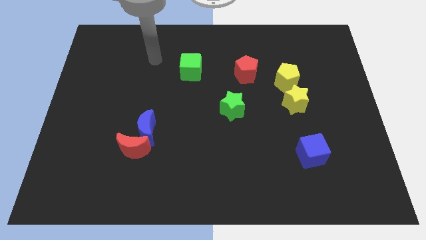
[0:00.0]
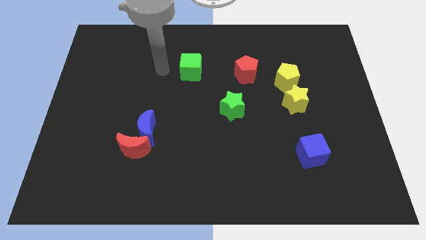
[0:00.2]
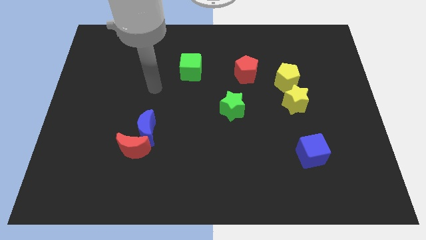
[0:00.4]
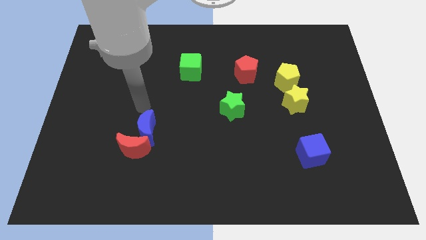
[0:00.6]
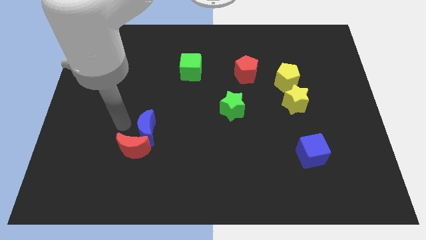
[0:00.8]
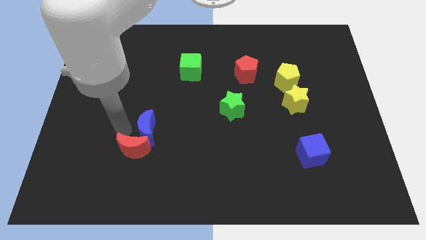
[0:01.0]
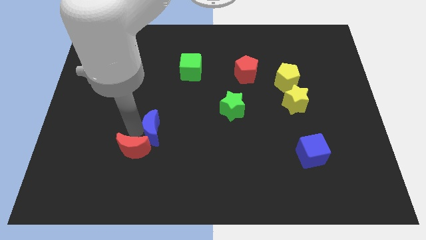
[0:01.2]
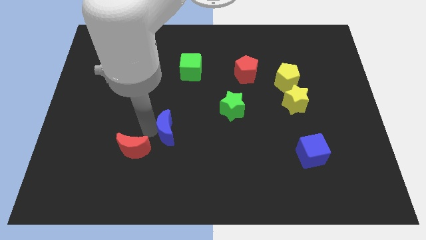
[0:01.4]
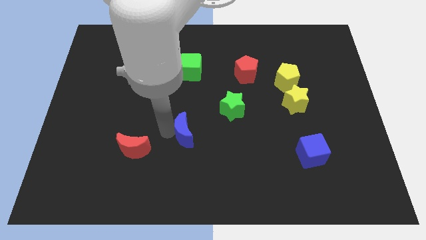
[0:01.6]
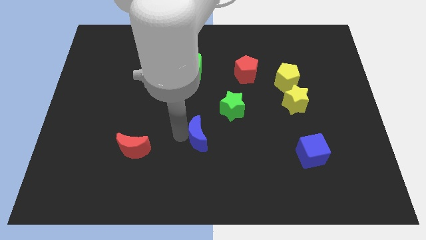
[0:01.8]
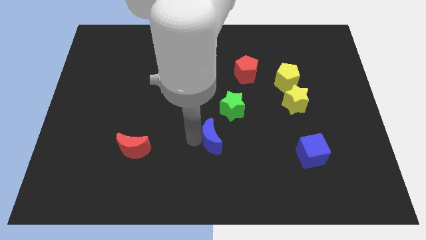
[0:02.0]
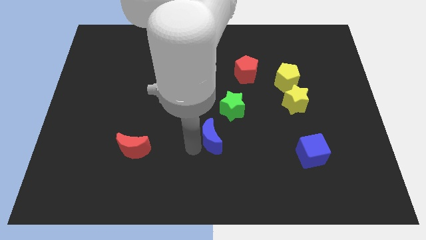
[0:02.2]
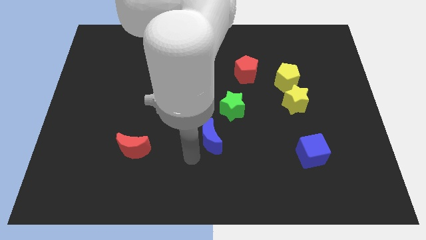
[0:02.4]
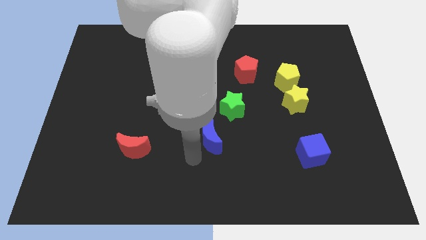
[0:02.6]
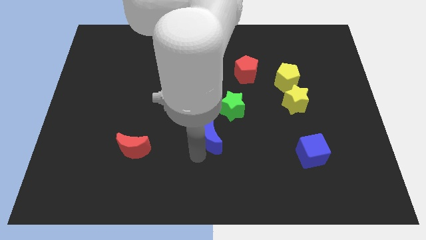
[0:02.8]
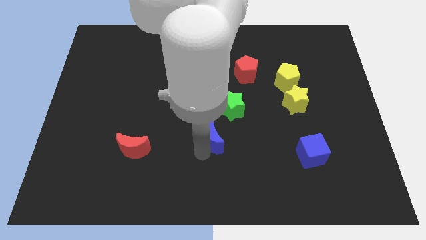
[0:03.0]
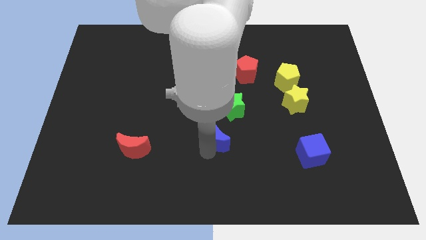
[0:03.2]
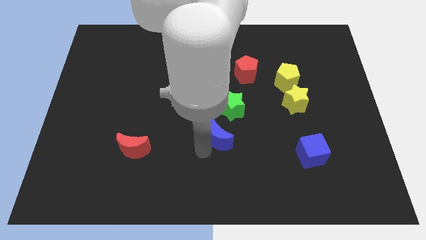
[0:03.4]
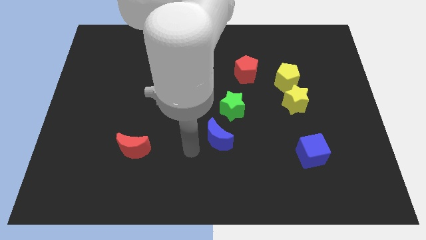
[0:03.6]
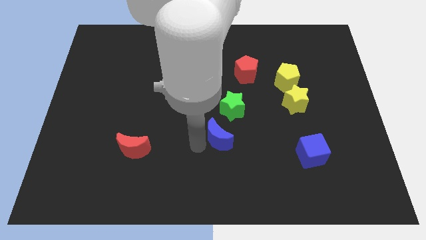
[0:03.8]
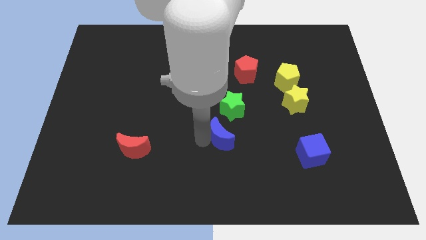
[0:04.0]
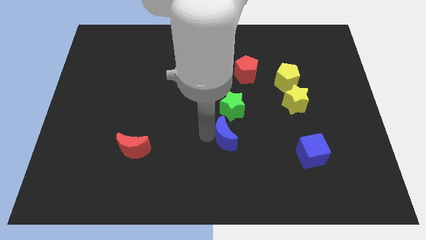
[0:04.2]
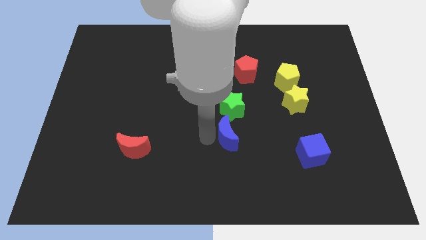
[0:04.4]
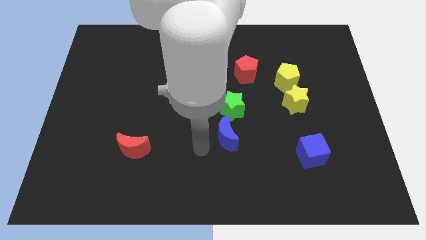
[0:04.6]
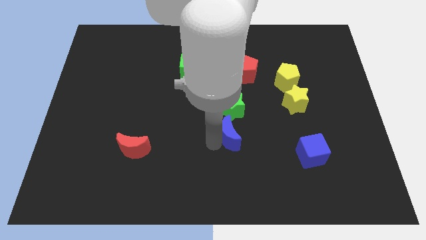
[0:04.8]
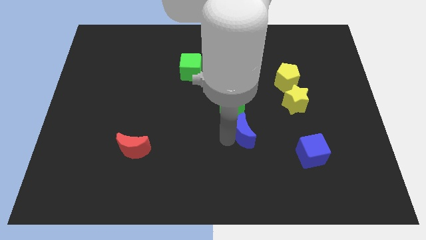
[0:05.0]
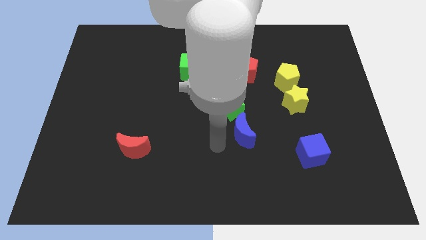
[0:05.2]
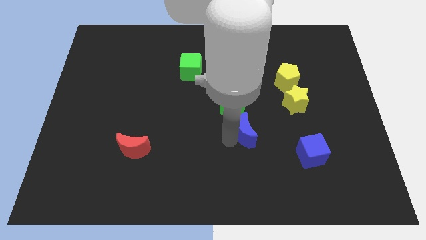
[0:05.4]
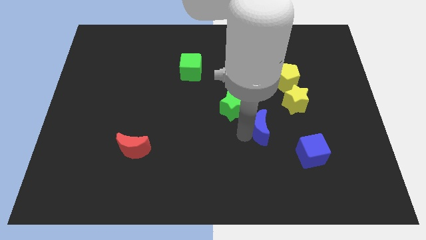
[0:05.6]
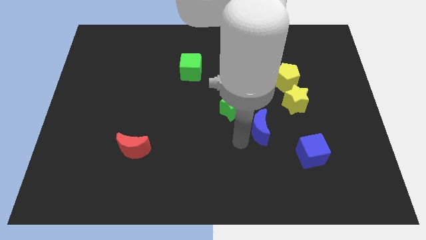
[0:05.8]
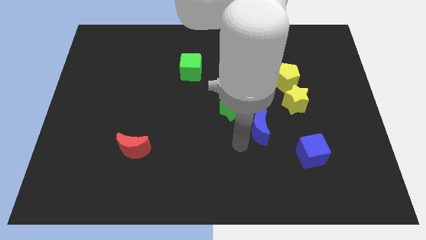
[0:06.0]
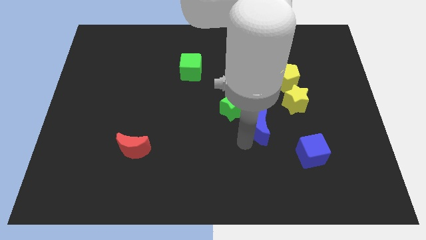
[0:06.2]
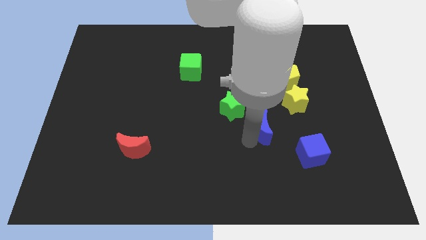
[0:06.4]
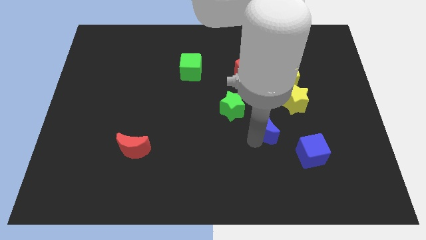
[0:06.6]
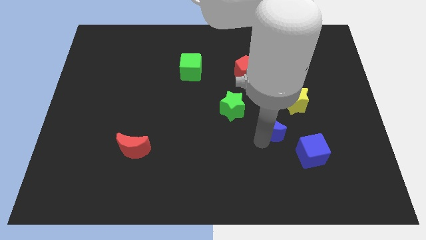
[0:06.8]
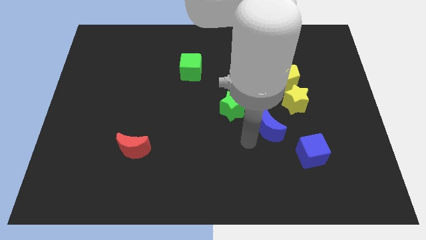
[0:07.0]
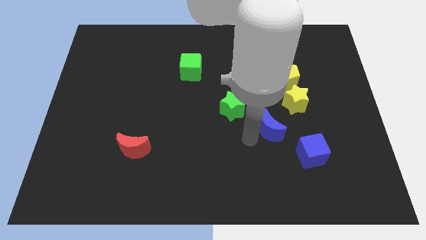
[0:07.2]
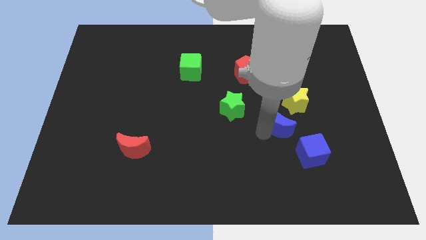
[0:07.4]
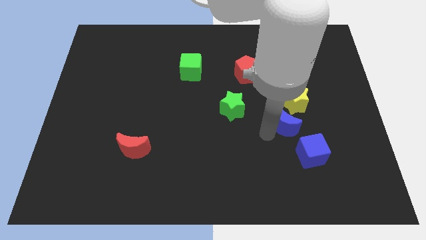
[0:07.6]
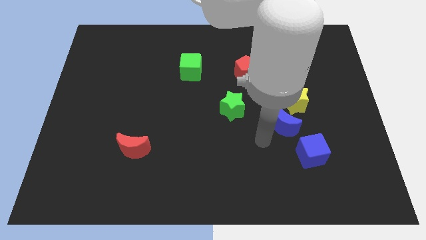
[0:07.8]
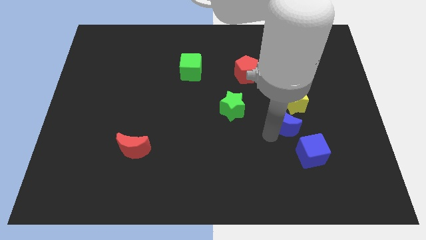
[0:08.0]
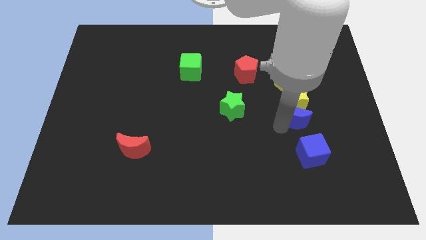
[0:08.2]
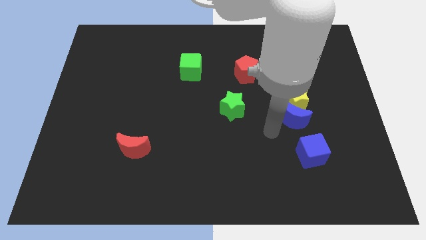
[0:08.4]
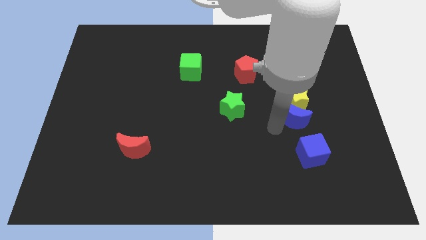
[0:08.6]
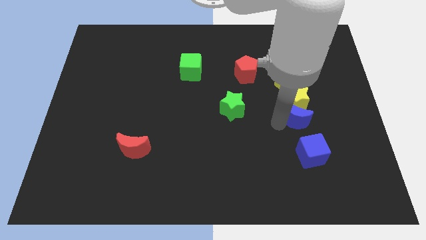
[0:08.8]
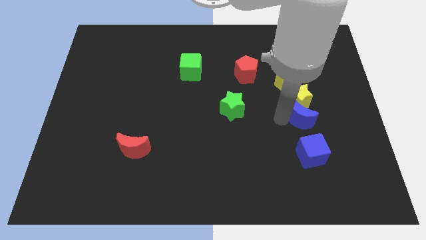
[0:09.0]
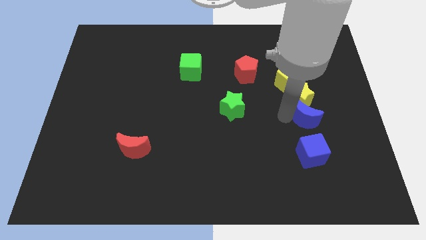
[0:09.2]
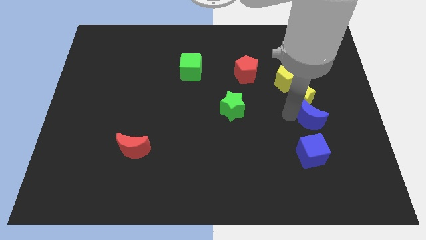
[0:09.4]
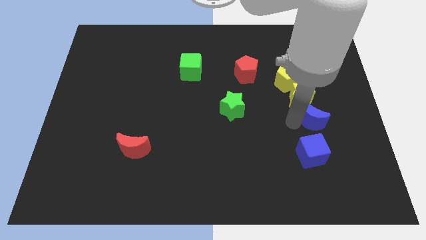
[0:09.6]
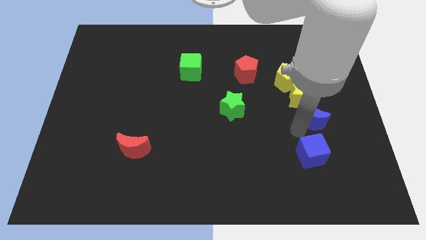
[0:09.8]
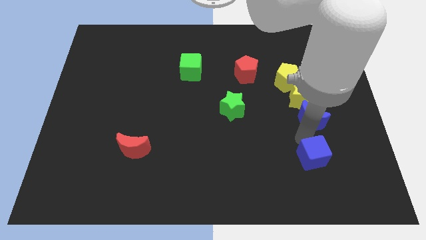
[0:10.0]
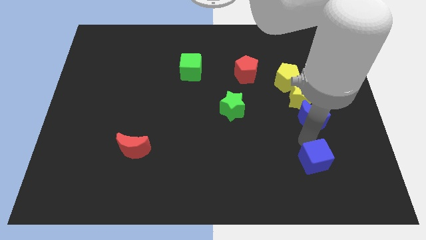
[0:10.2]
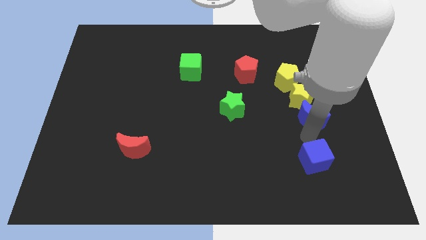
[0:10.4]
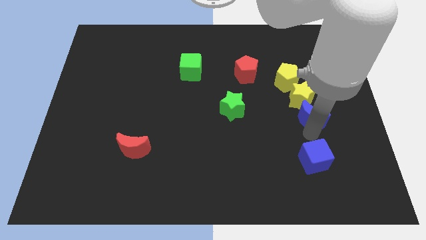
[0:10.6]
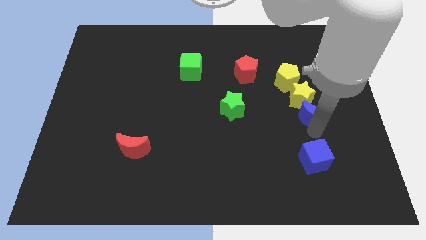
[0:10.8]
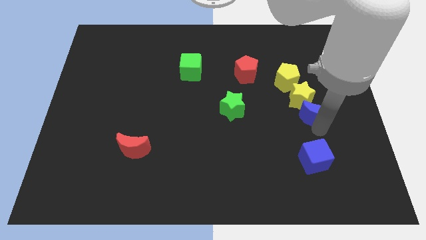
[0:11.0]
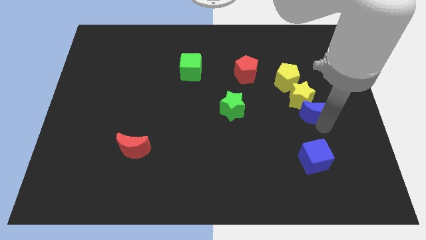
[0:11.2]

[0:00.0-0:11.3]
move the blue moon to the bottom right side of the yellow pentagon

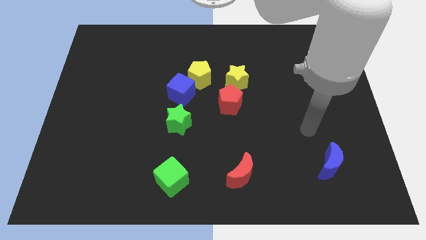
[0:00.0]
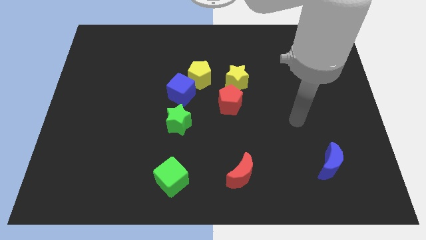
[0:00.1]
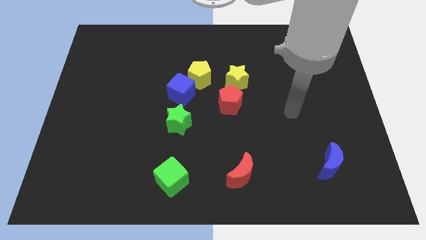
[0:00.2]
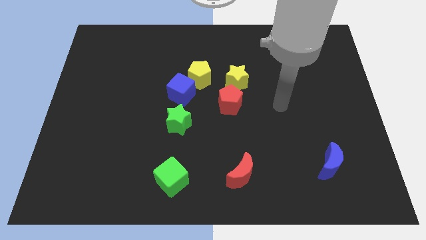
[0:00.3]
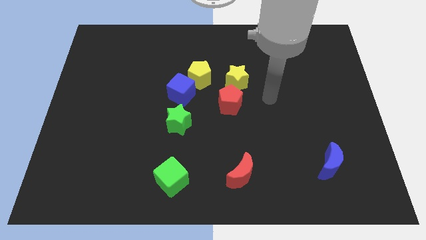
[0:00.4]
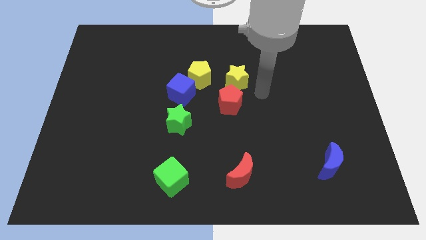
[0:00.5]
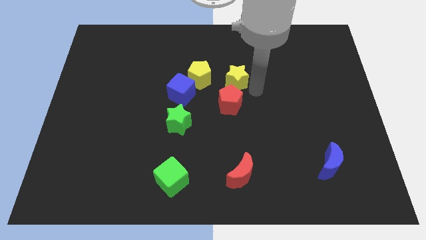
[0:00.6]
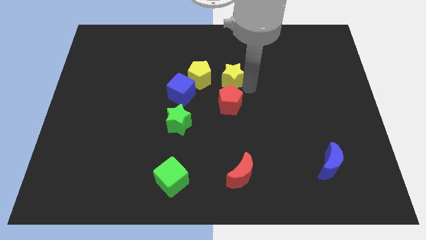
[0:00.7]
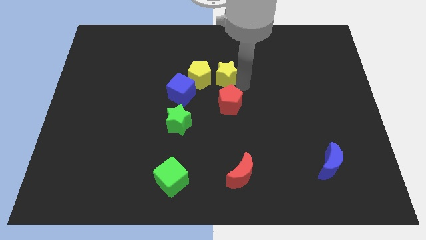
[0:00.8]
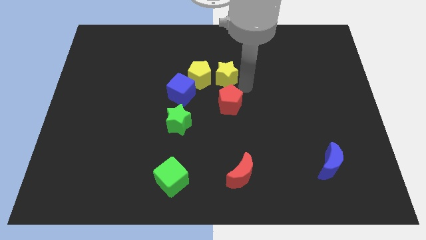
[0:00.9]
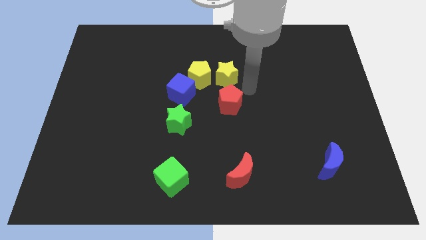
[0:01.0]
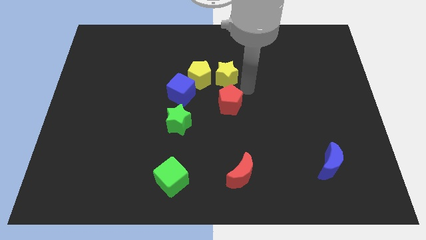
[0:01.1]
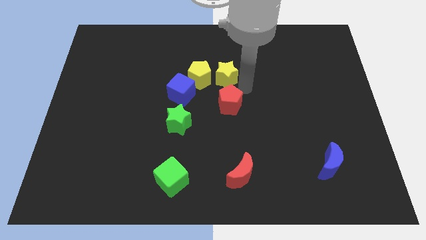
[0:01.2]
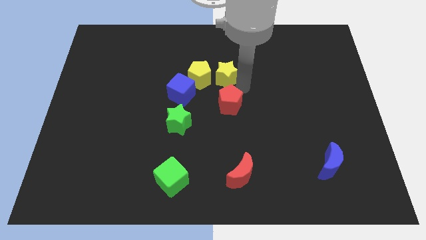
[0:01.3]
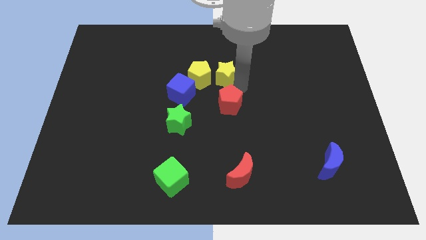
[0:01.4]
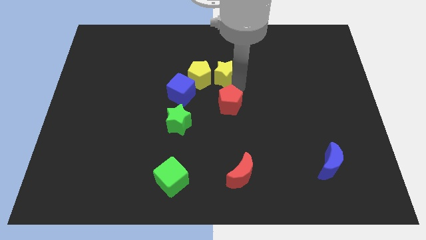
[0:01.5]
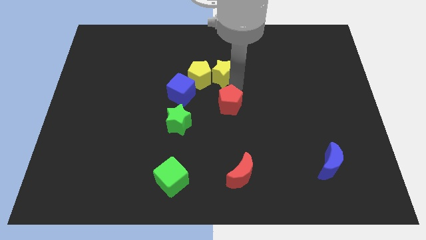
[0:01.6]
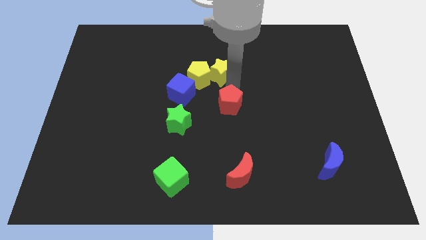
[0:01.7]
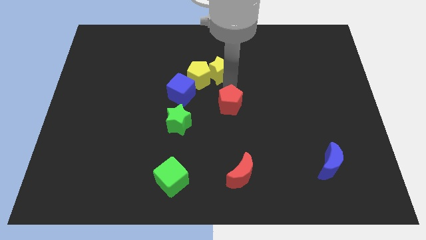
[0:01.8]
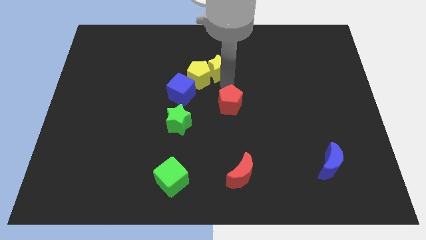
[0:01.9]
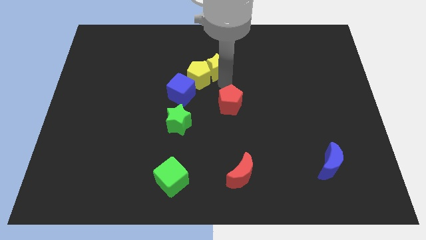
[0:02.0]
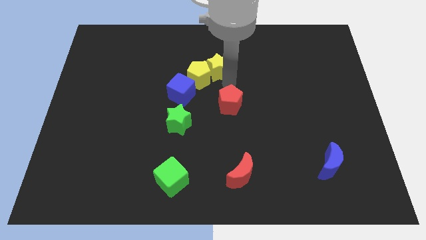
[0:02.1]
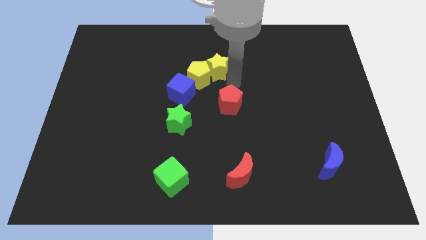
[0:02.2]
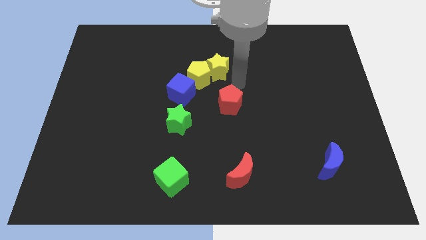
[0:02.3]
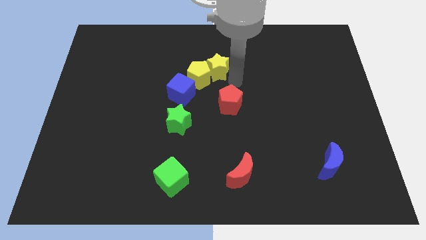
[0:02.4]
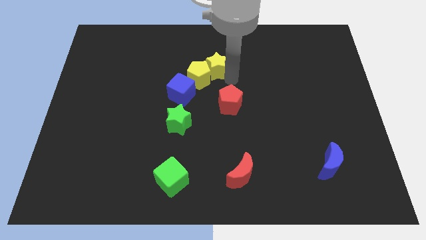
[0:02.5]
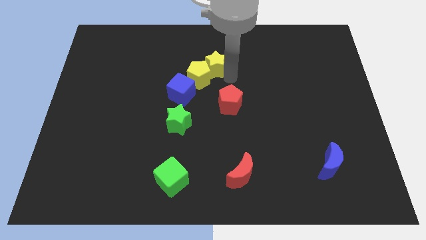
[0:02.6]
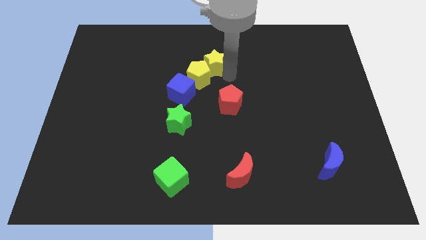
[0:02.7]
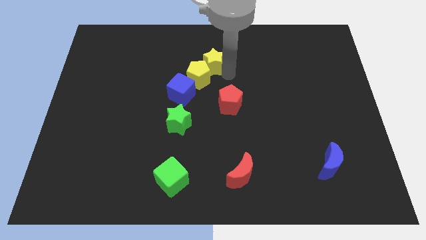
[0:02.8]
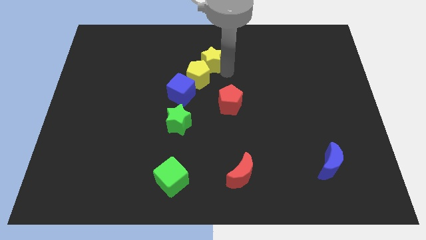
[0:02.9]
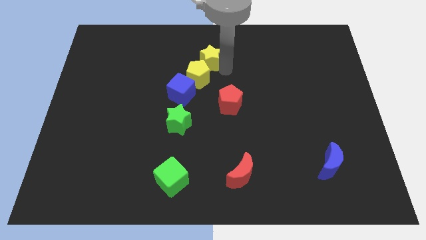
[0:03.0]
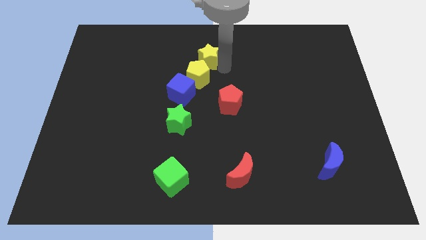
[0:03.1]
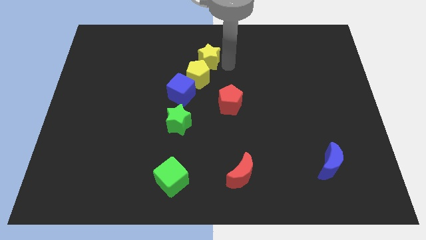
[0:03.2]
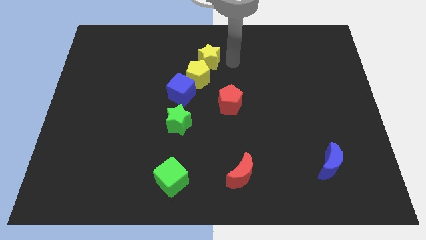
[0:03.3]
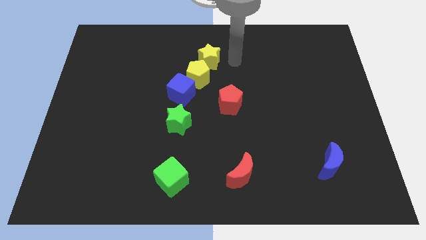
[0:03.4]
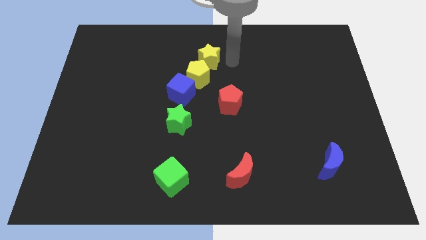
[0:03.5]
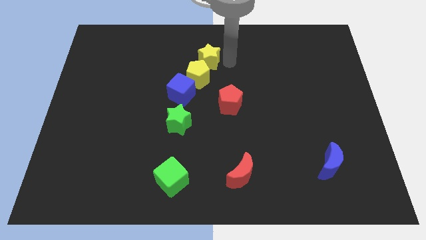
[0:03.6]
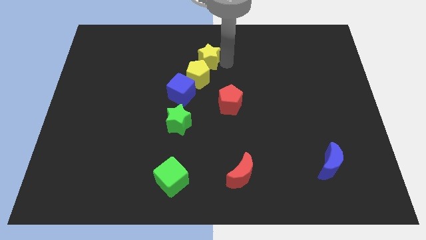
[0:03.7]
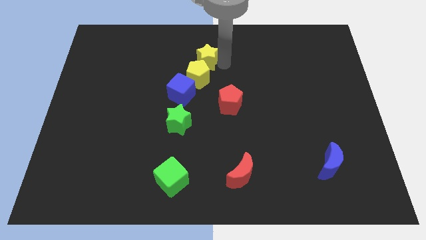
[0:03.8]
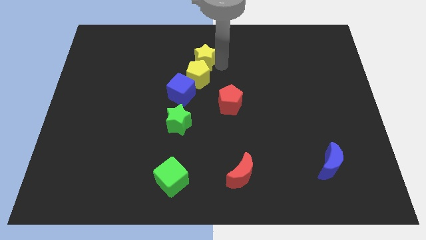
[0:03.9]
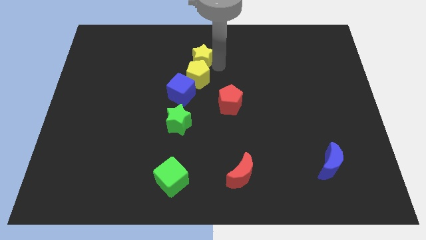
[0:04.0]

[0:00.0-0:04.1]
push the yellow star to the top side of the blue cube
